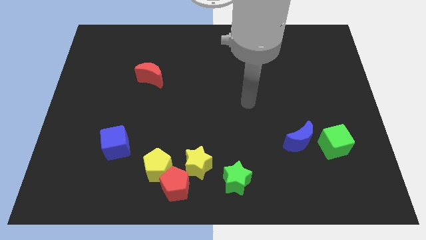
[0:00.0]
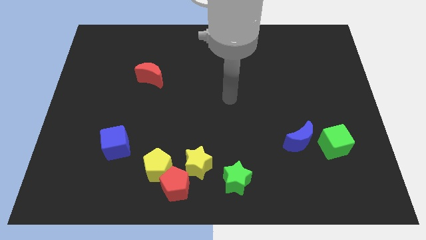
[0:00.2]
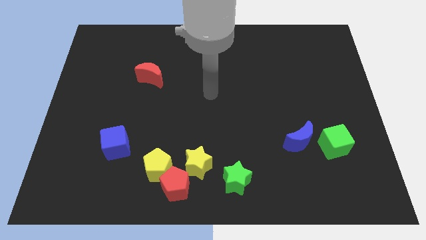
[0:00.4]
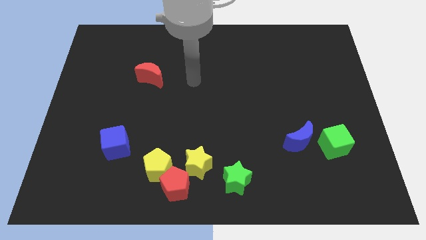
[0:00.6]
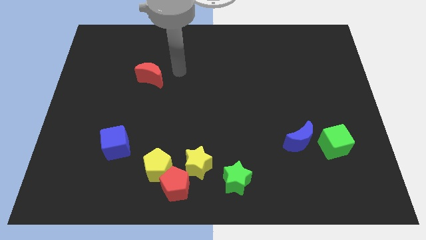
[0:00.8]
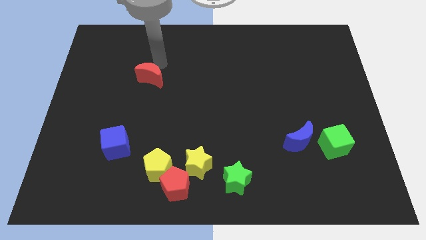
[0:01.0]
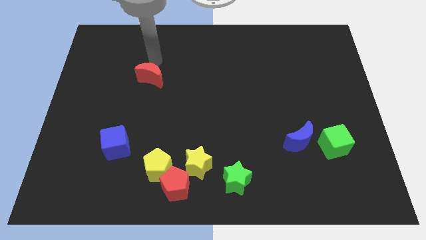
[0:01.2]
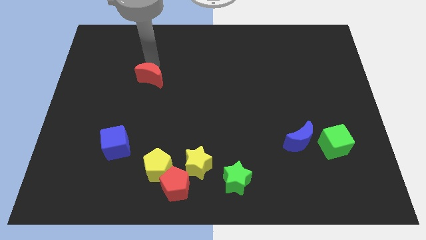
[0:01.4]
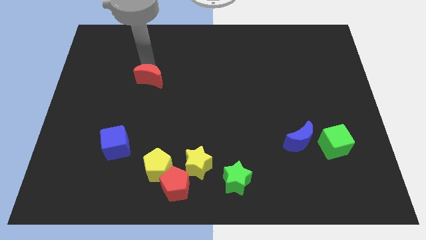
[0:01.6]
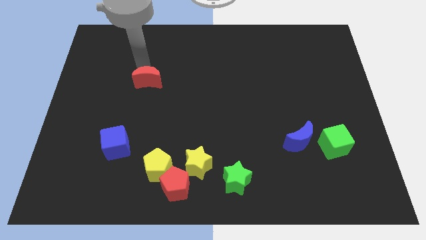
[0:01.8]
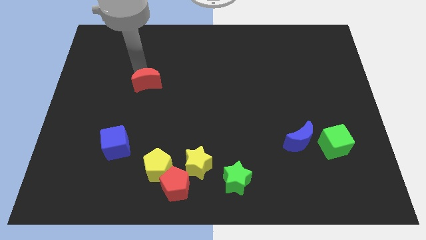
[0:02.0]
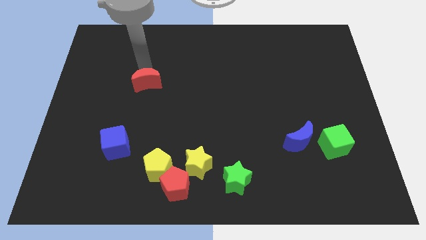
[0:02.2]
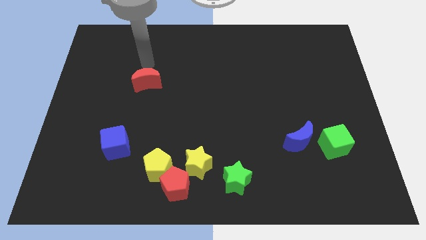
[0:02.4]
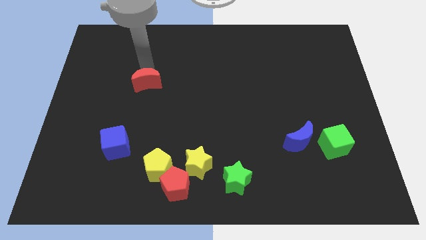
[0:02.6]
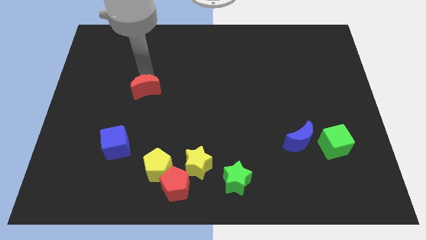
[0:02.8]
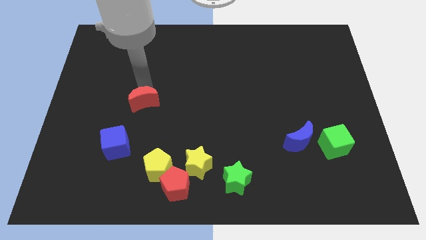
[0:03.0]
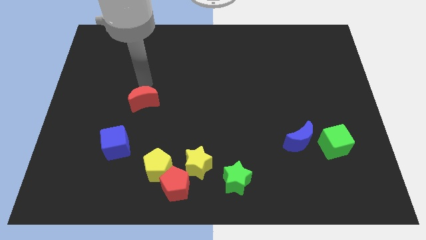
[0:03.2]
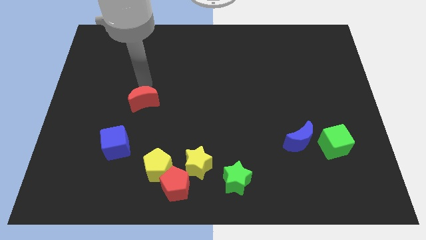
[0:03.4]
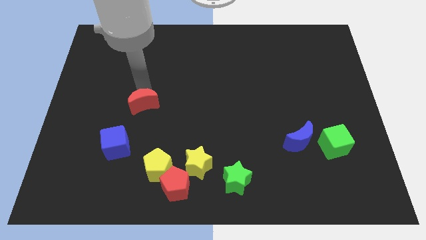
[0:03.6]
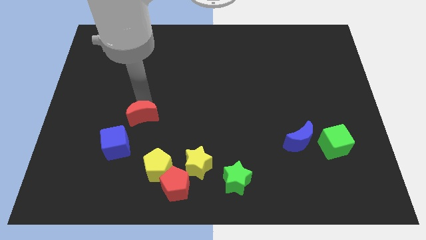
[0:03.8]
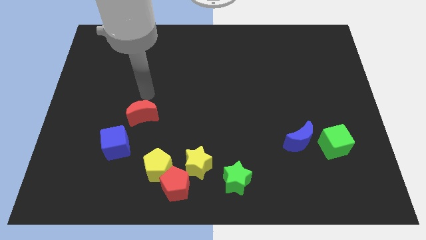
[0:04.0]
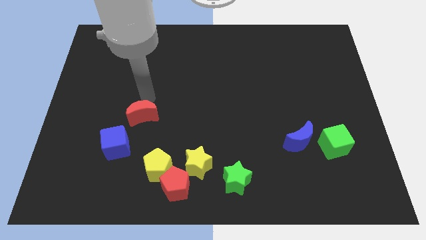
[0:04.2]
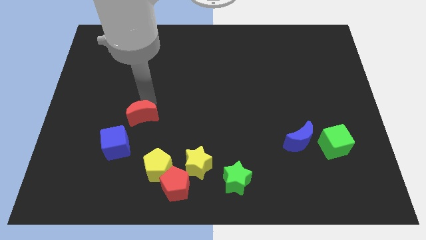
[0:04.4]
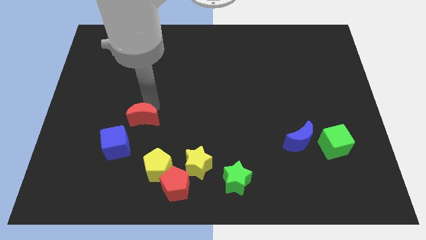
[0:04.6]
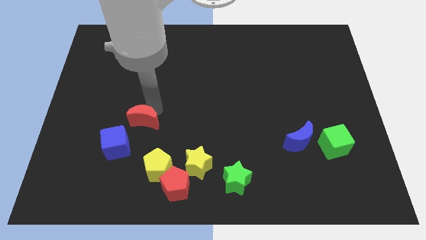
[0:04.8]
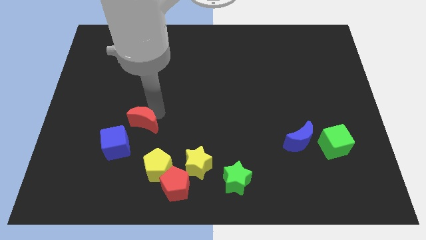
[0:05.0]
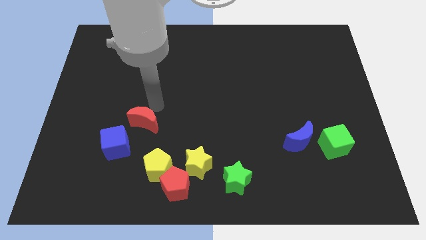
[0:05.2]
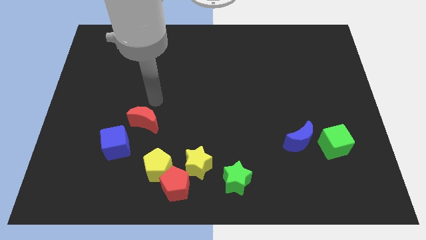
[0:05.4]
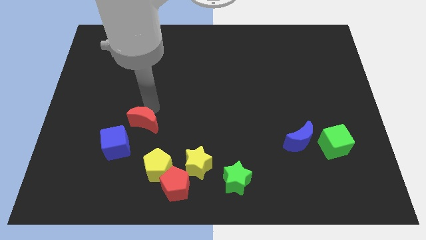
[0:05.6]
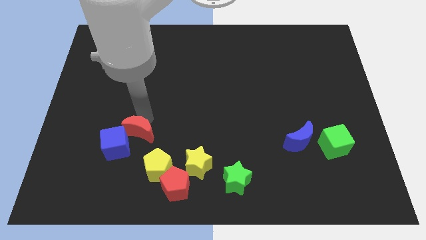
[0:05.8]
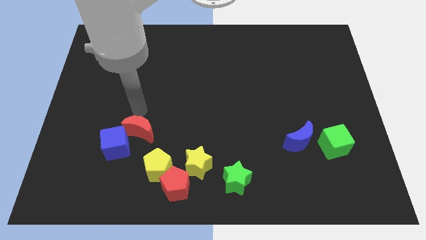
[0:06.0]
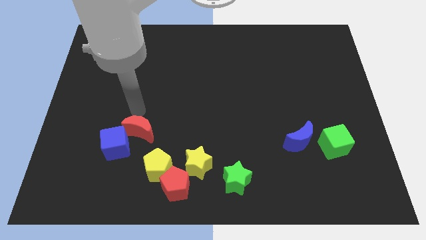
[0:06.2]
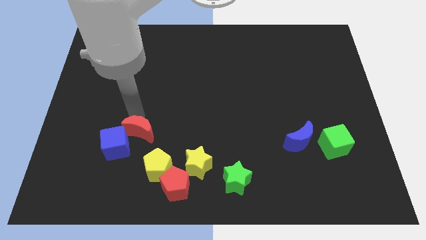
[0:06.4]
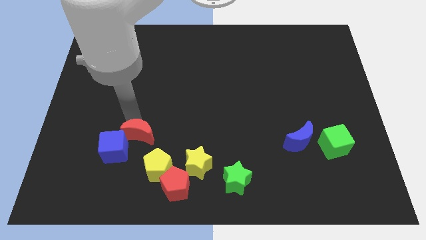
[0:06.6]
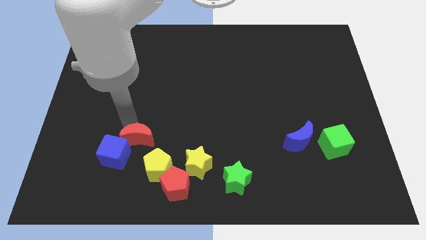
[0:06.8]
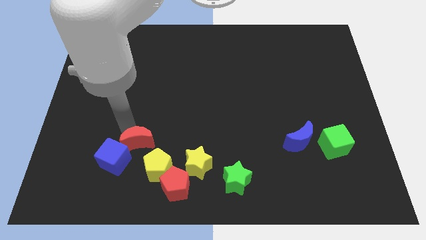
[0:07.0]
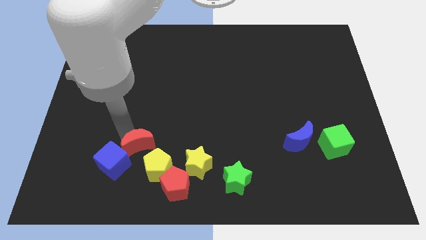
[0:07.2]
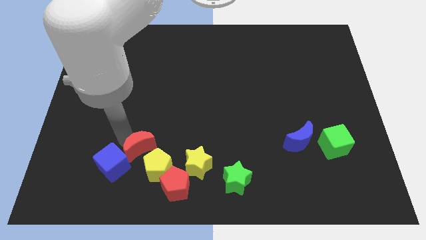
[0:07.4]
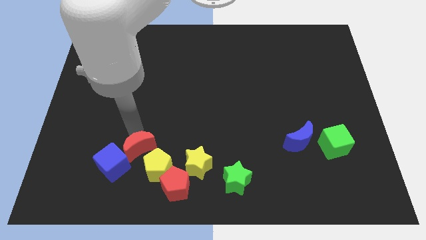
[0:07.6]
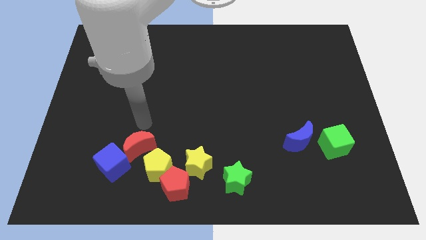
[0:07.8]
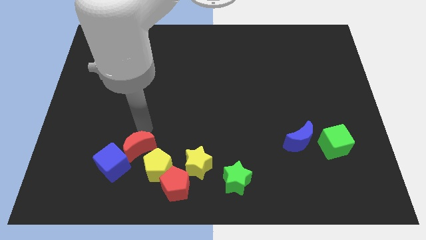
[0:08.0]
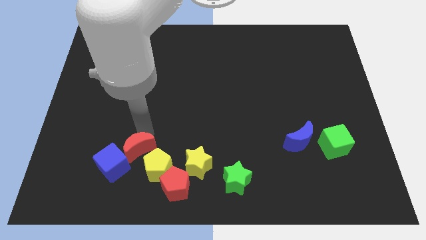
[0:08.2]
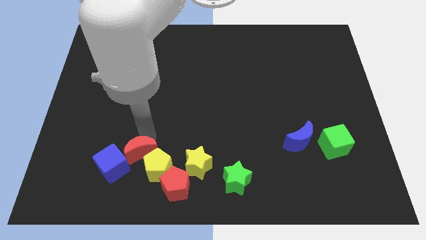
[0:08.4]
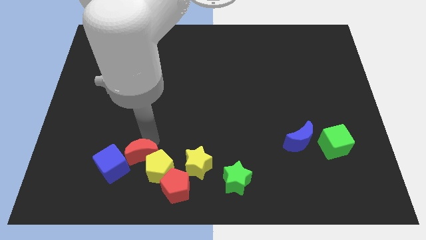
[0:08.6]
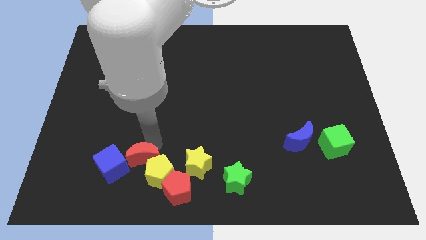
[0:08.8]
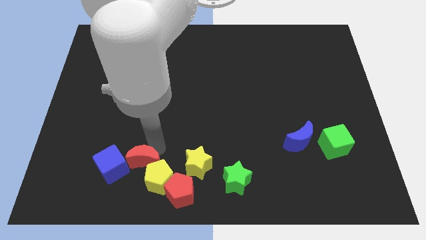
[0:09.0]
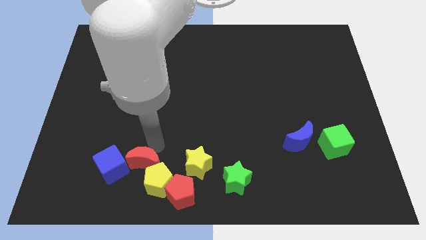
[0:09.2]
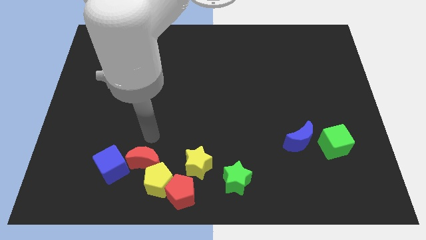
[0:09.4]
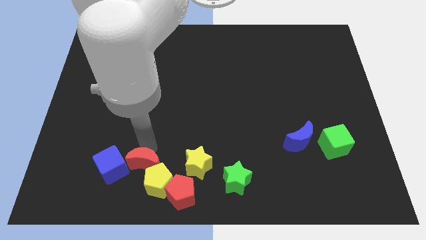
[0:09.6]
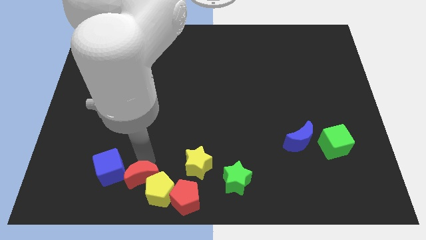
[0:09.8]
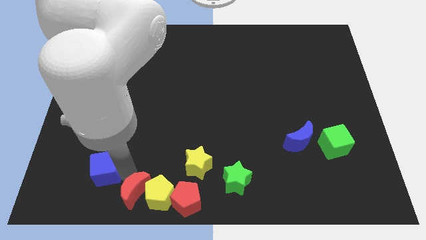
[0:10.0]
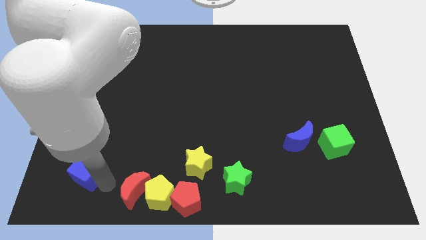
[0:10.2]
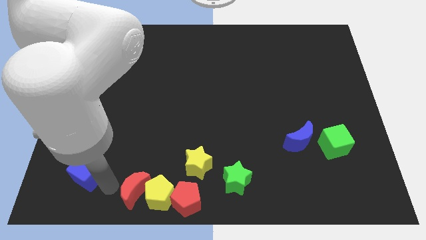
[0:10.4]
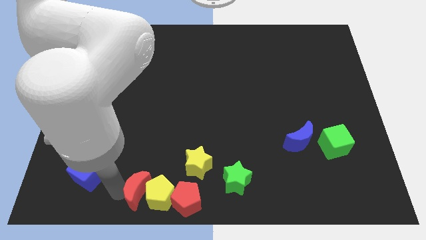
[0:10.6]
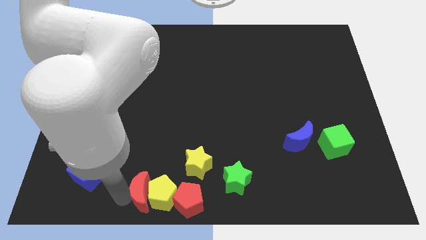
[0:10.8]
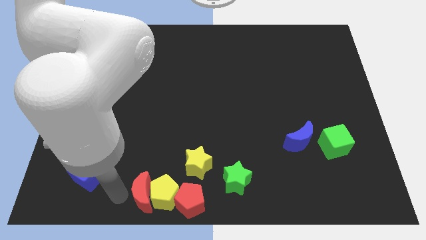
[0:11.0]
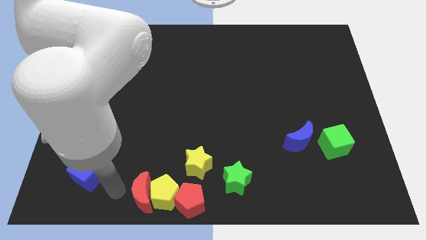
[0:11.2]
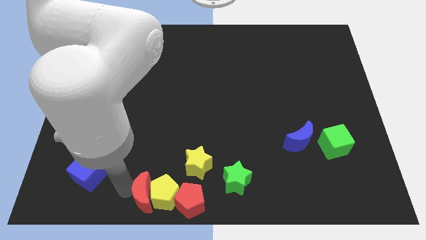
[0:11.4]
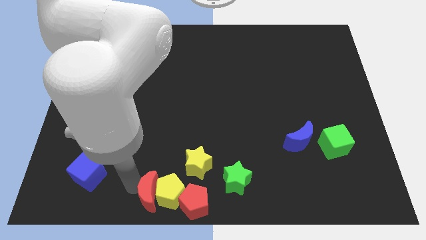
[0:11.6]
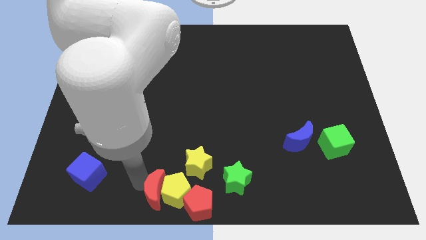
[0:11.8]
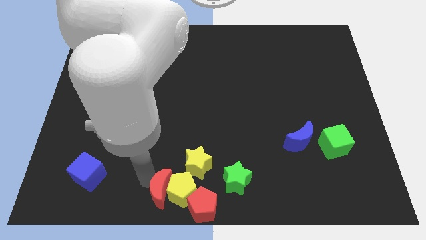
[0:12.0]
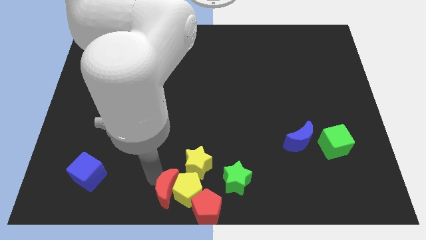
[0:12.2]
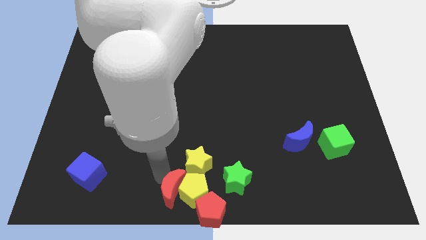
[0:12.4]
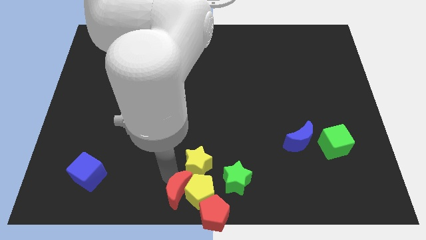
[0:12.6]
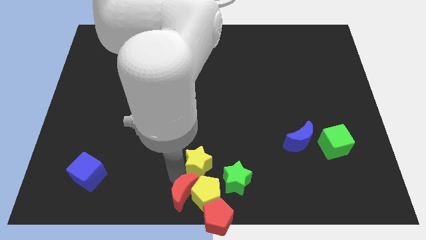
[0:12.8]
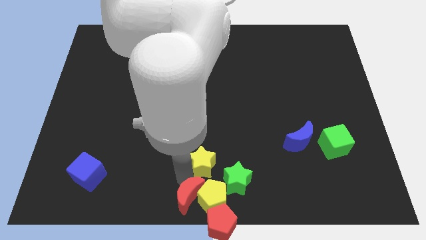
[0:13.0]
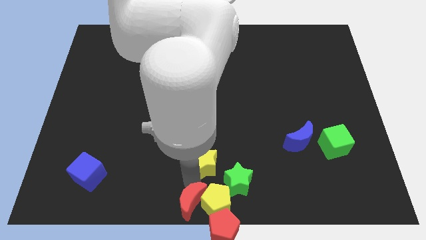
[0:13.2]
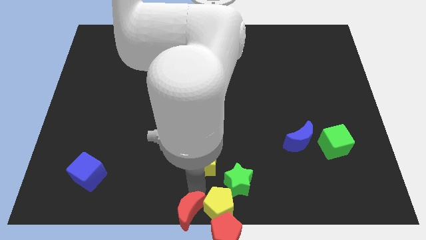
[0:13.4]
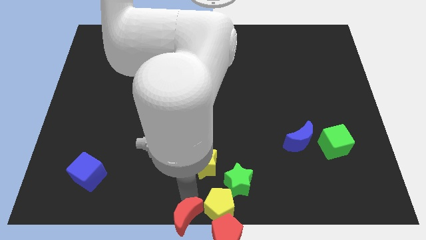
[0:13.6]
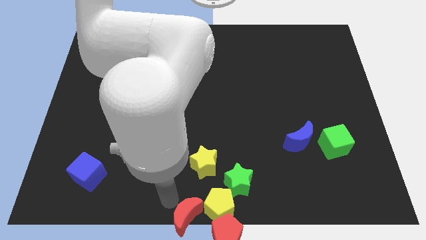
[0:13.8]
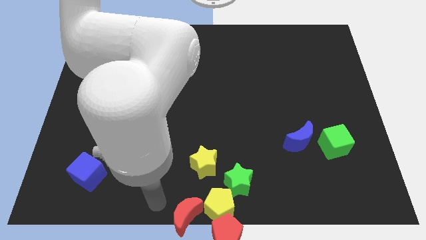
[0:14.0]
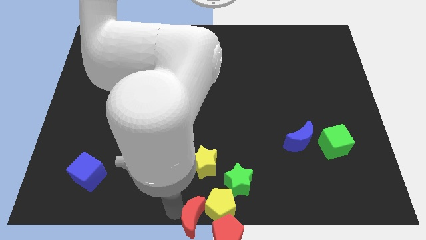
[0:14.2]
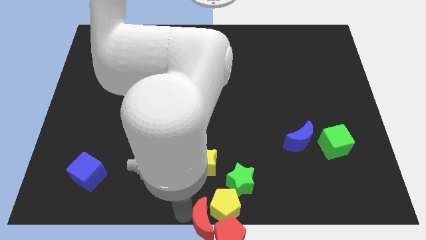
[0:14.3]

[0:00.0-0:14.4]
move the red moon towards the red pentagon

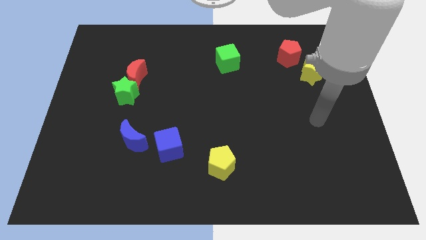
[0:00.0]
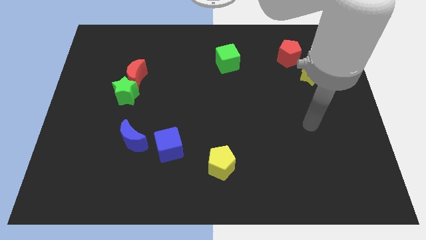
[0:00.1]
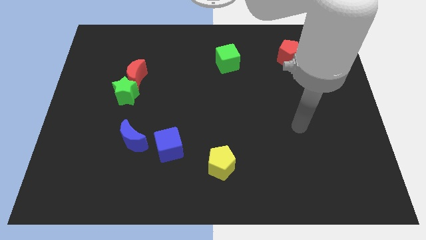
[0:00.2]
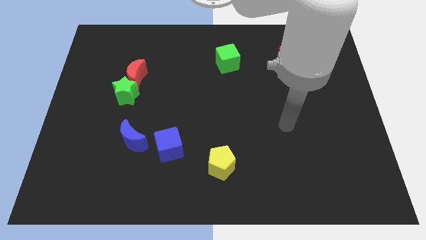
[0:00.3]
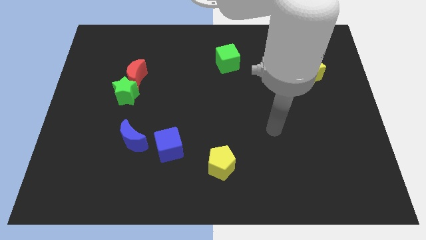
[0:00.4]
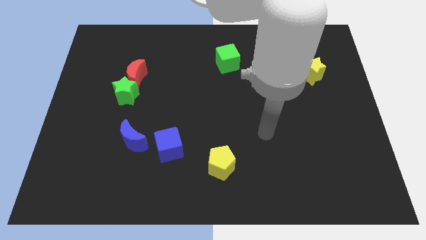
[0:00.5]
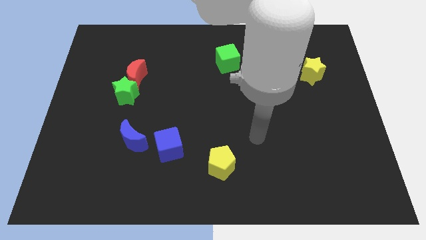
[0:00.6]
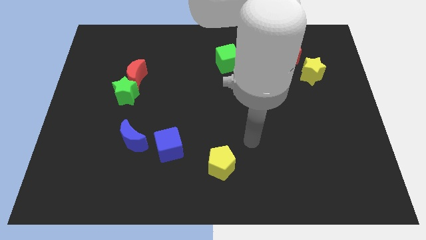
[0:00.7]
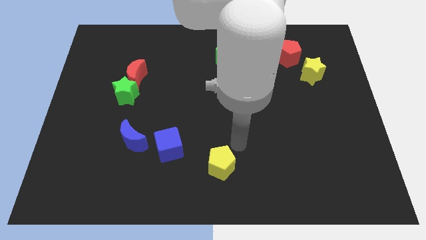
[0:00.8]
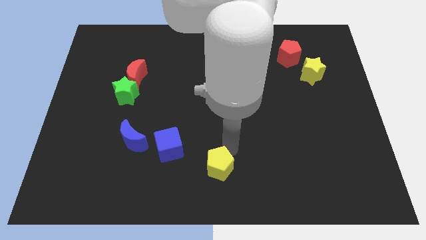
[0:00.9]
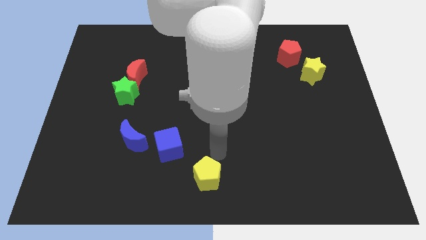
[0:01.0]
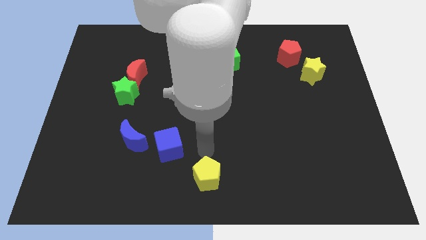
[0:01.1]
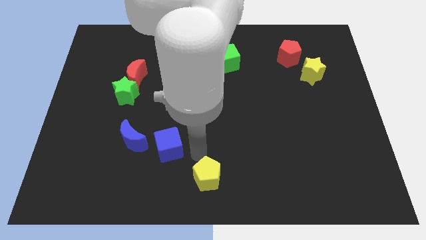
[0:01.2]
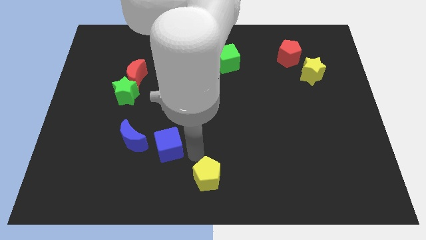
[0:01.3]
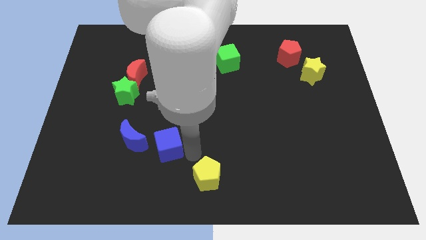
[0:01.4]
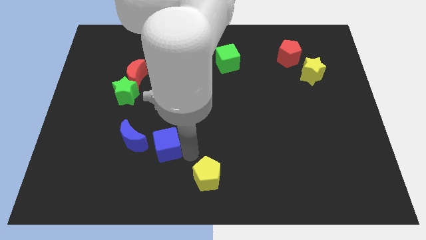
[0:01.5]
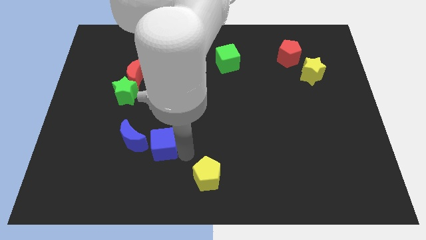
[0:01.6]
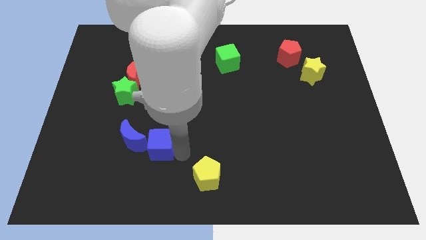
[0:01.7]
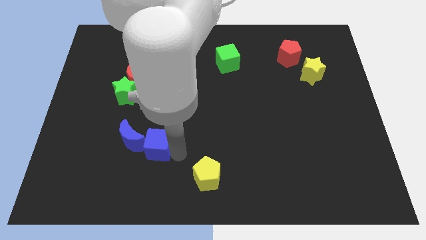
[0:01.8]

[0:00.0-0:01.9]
put the blue cube towards the blue moon
